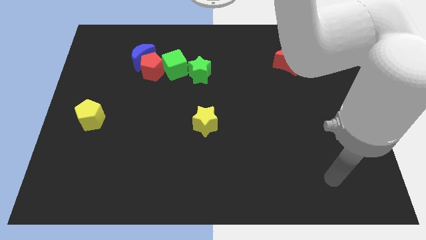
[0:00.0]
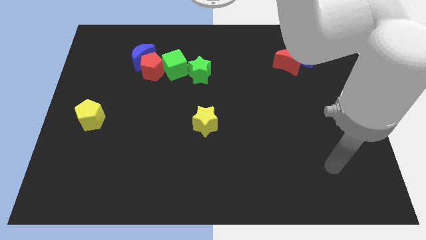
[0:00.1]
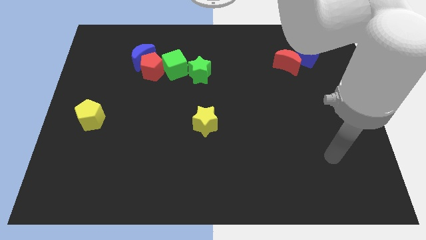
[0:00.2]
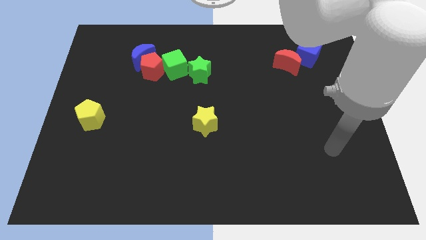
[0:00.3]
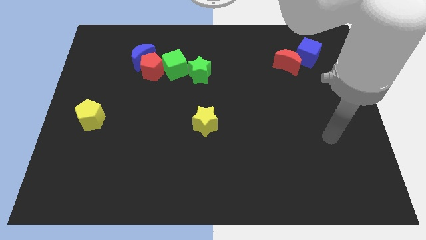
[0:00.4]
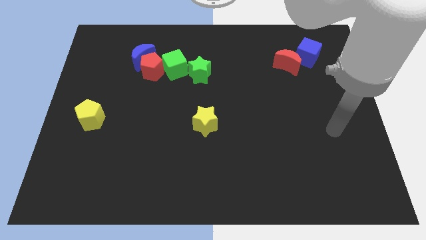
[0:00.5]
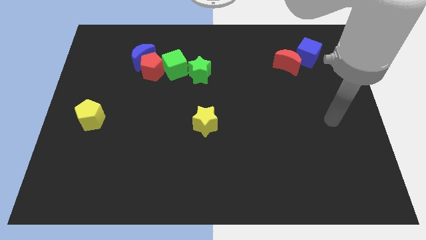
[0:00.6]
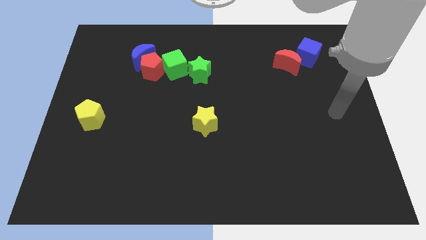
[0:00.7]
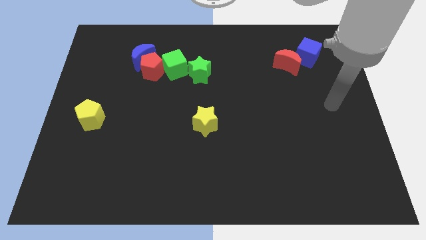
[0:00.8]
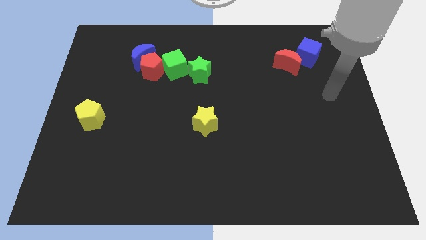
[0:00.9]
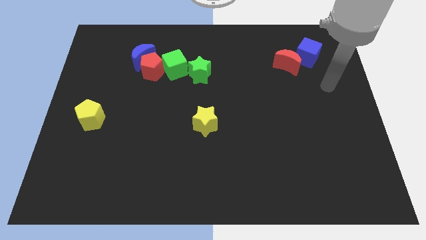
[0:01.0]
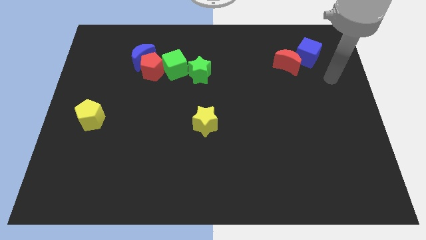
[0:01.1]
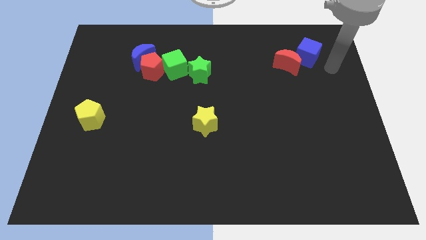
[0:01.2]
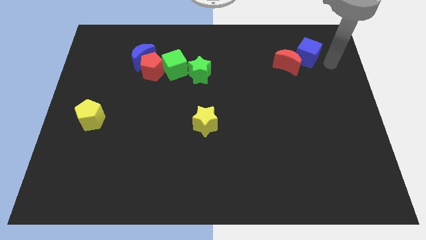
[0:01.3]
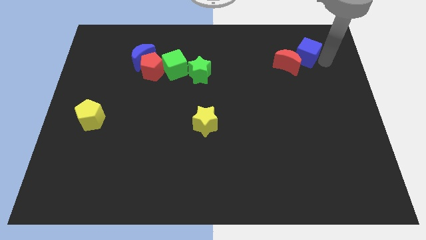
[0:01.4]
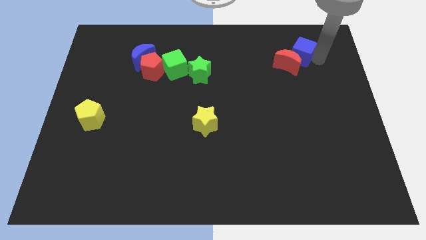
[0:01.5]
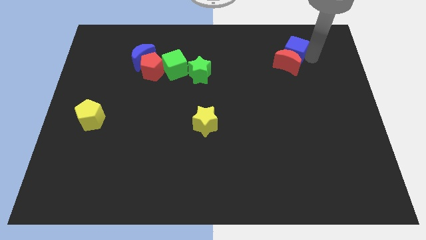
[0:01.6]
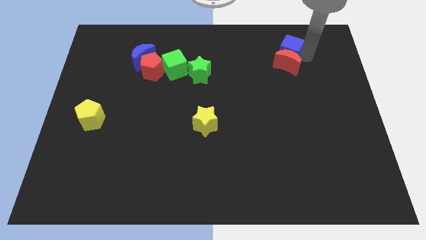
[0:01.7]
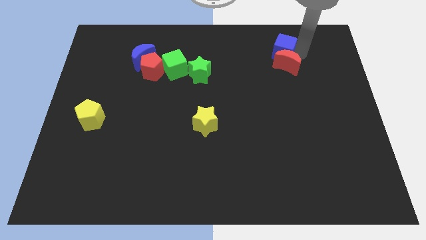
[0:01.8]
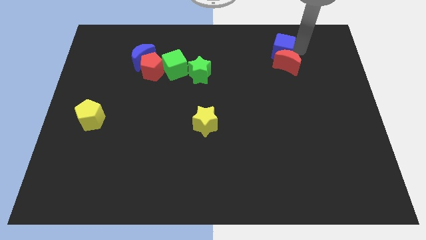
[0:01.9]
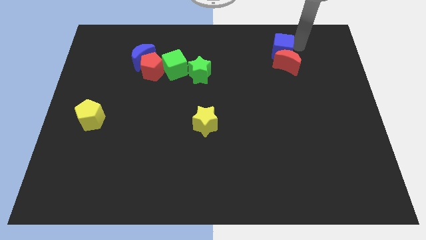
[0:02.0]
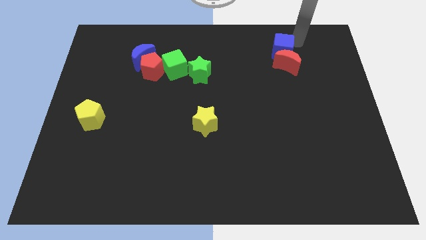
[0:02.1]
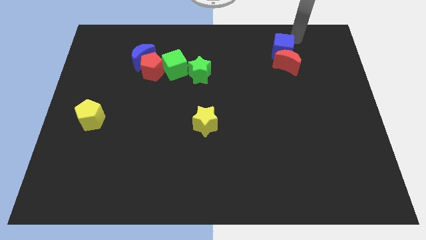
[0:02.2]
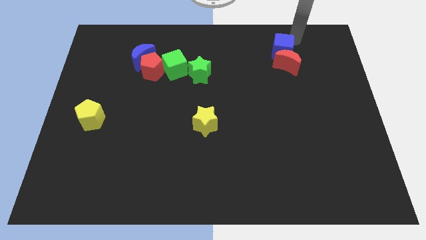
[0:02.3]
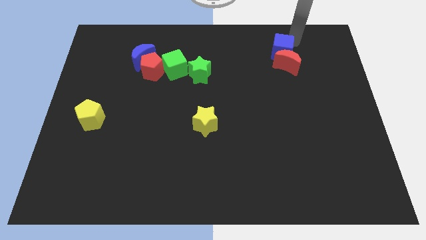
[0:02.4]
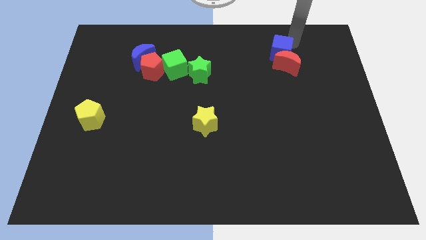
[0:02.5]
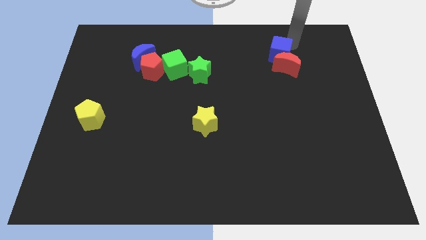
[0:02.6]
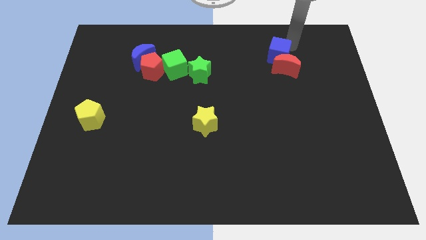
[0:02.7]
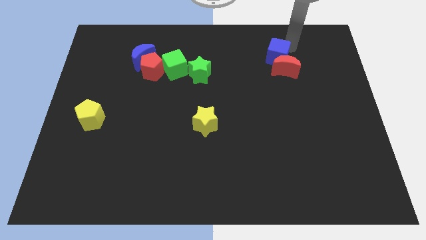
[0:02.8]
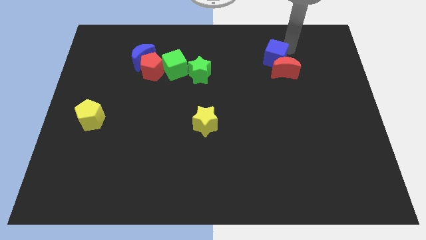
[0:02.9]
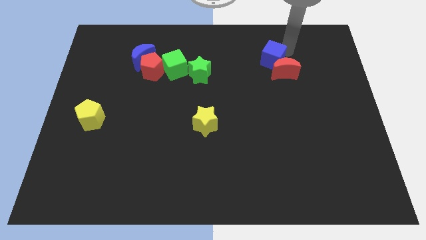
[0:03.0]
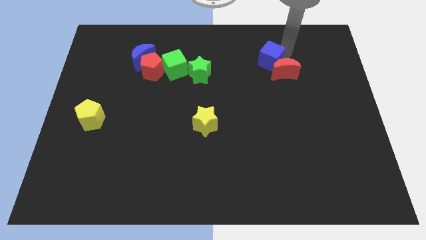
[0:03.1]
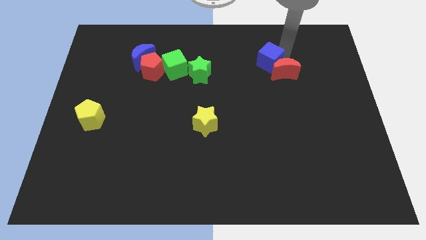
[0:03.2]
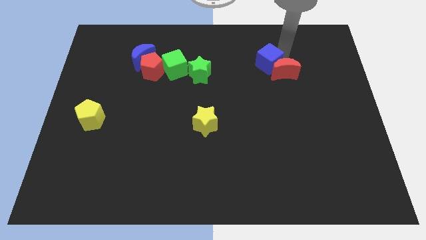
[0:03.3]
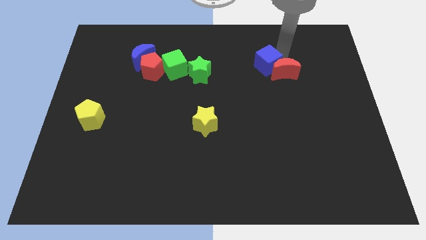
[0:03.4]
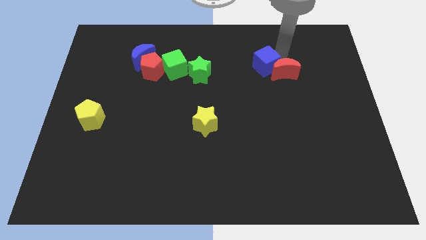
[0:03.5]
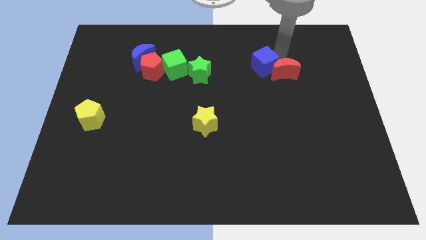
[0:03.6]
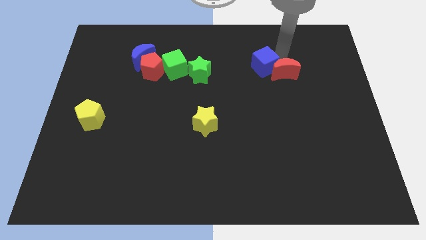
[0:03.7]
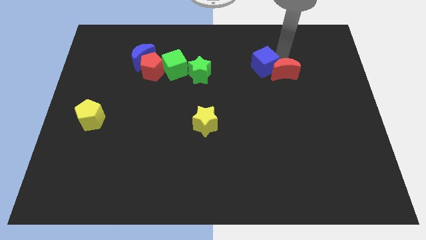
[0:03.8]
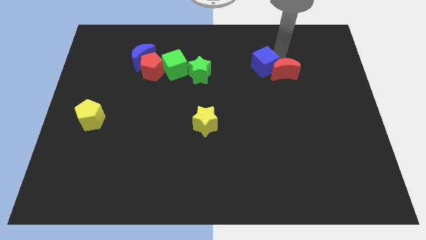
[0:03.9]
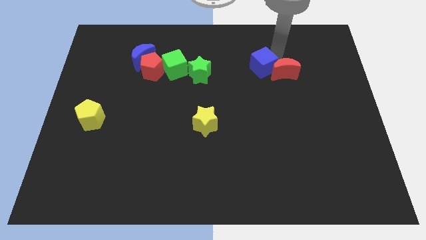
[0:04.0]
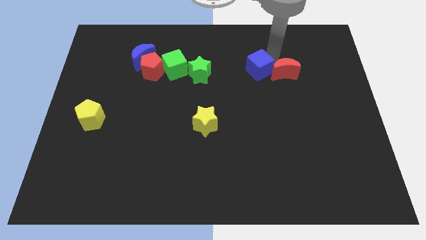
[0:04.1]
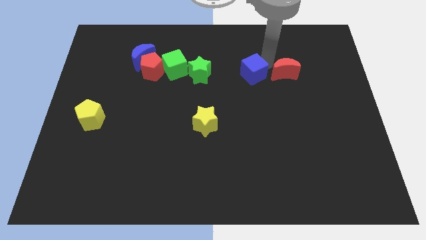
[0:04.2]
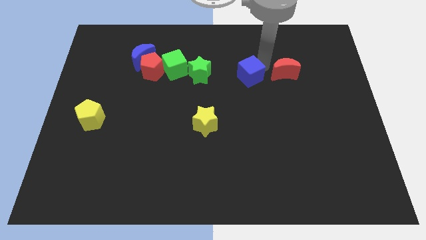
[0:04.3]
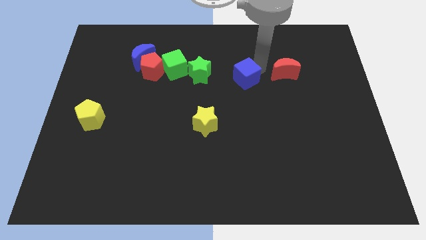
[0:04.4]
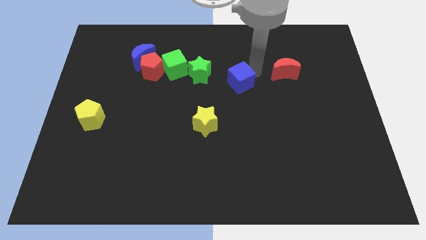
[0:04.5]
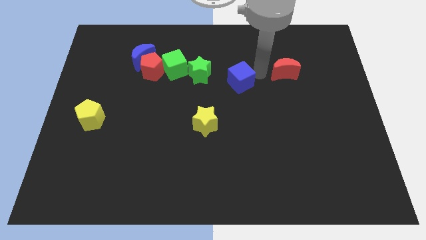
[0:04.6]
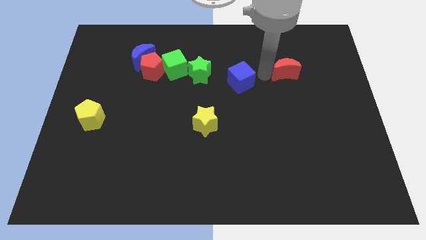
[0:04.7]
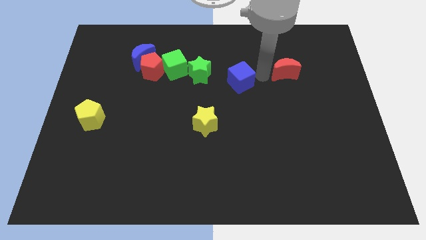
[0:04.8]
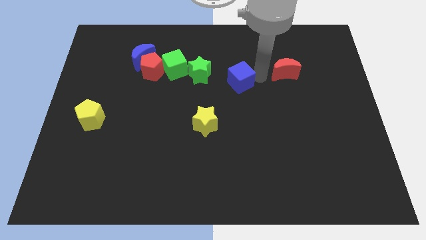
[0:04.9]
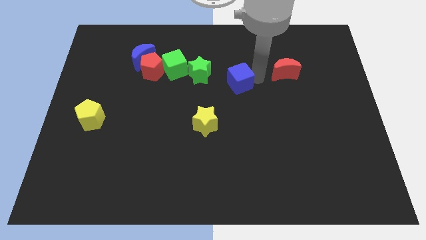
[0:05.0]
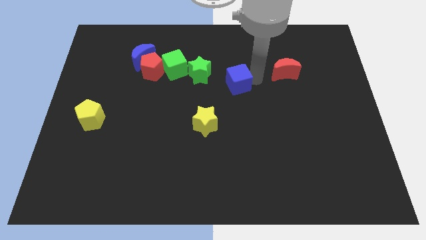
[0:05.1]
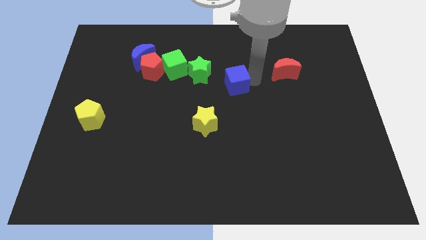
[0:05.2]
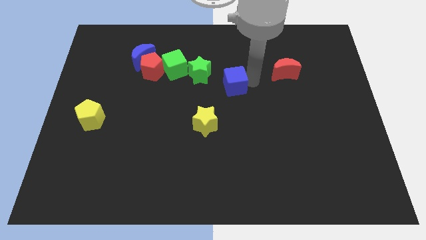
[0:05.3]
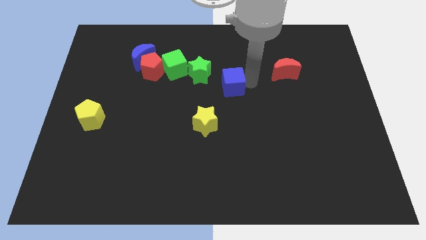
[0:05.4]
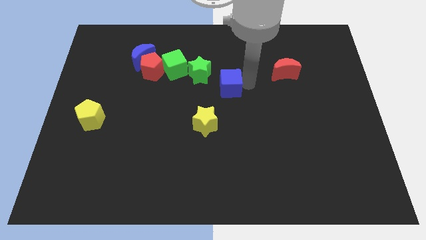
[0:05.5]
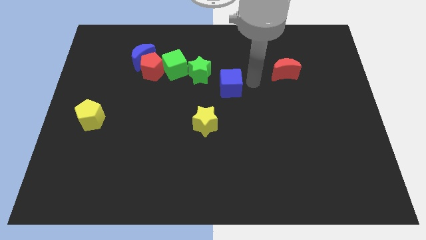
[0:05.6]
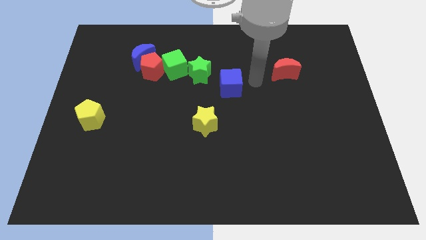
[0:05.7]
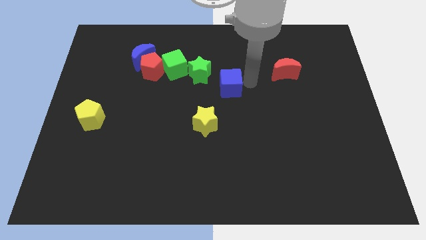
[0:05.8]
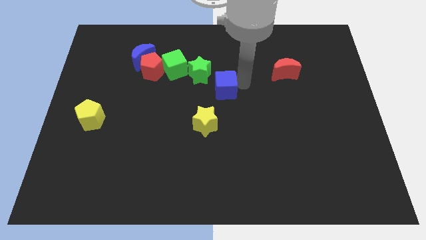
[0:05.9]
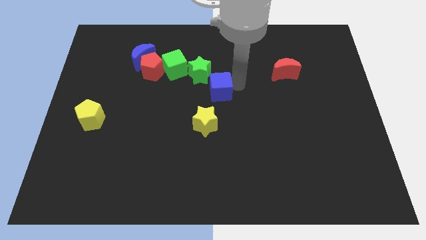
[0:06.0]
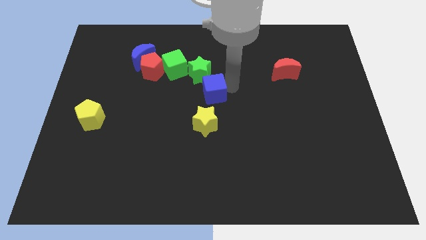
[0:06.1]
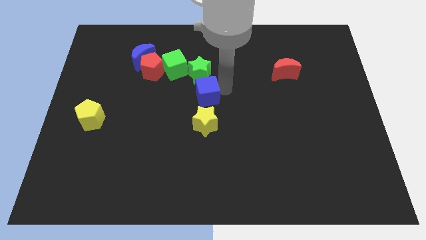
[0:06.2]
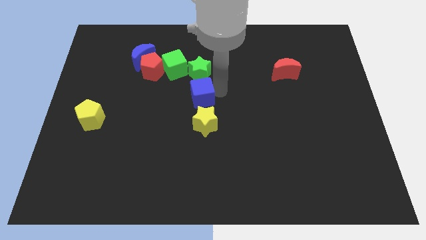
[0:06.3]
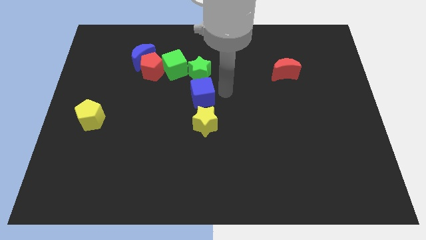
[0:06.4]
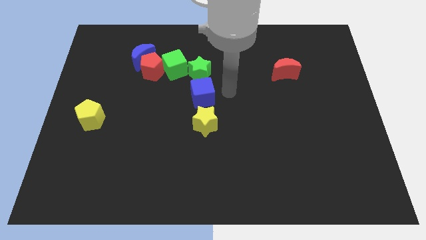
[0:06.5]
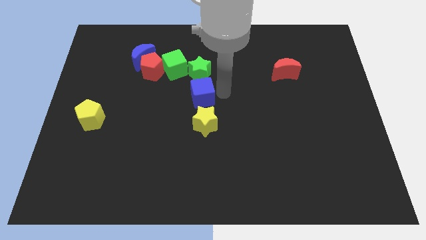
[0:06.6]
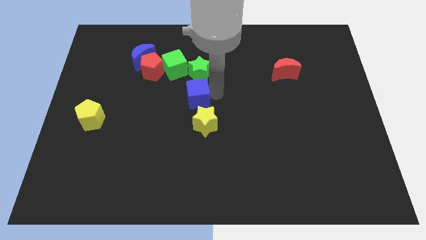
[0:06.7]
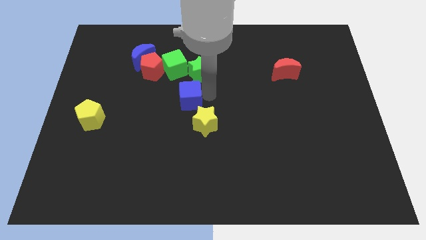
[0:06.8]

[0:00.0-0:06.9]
push the blue cube below the green cube

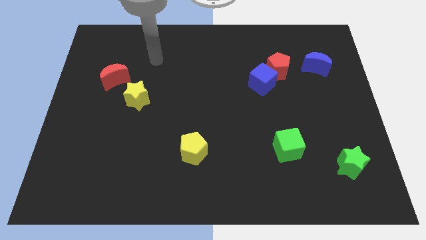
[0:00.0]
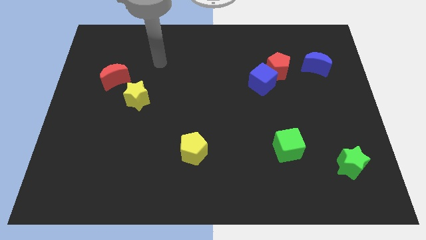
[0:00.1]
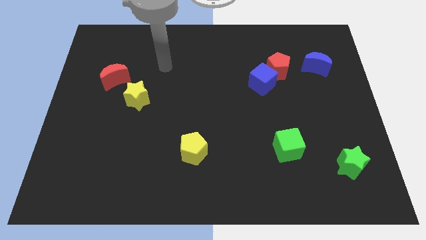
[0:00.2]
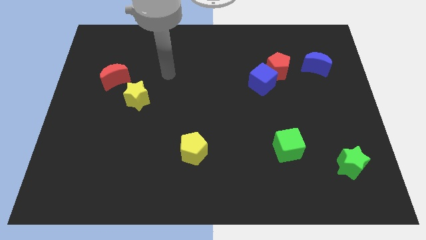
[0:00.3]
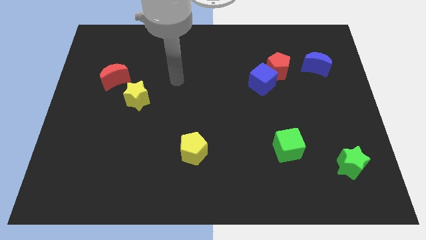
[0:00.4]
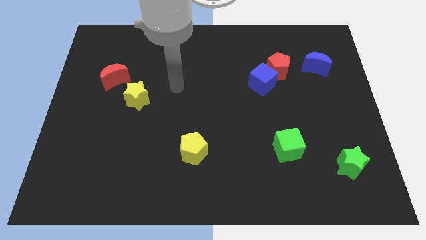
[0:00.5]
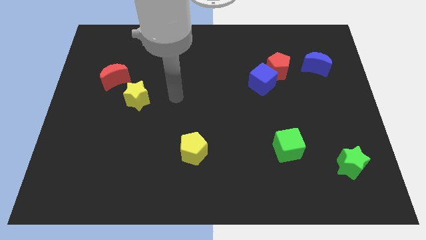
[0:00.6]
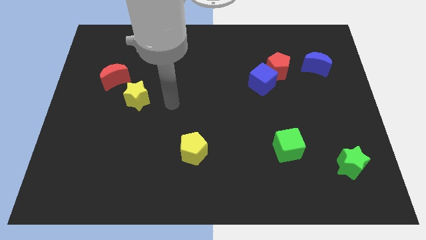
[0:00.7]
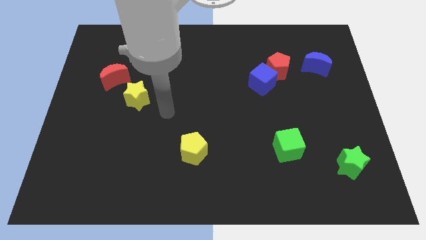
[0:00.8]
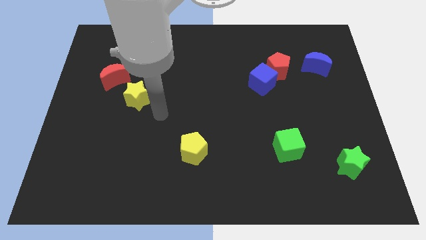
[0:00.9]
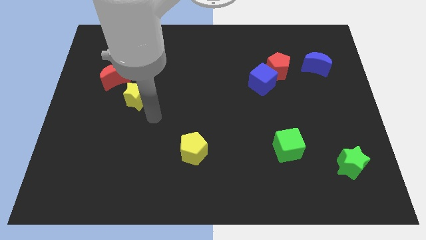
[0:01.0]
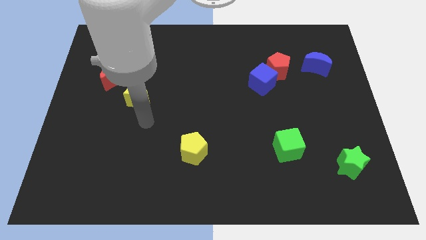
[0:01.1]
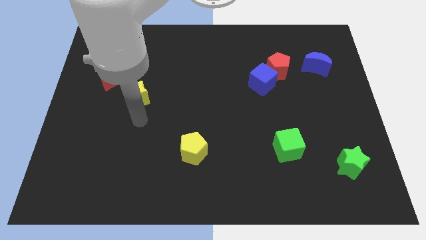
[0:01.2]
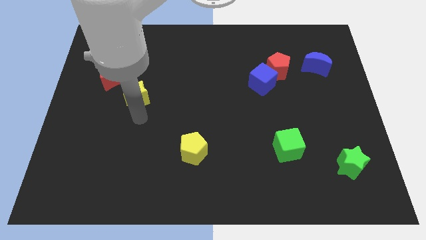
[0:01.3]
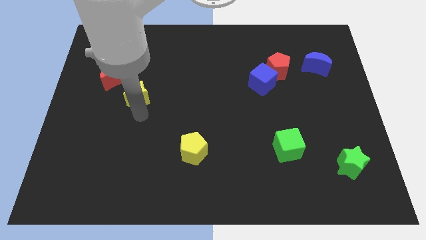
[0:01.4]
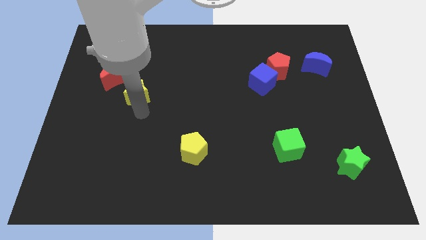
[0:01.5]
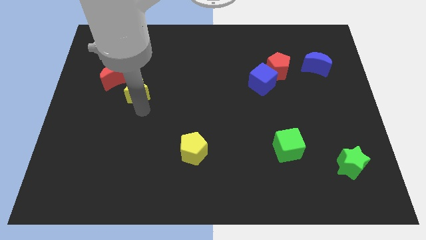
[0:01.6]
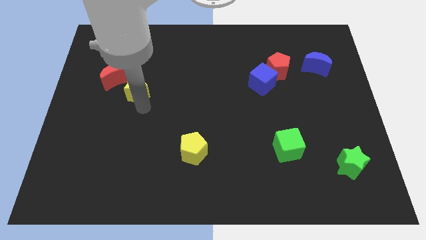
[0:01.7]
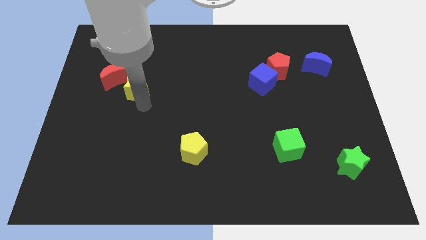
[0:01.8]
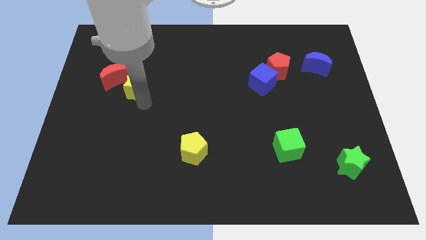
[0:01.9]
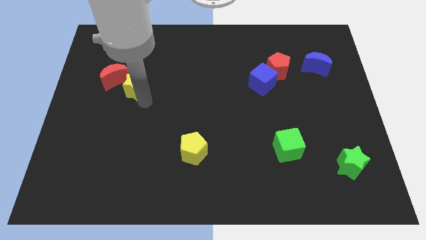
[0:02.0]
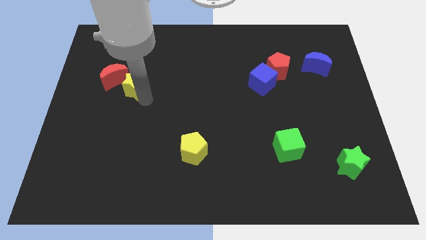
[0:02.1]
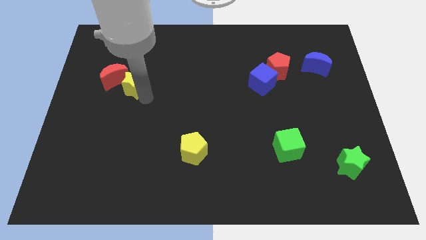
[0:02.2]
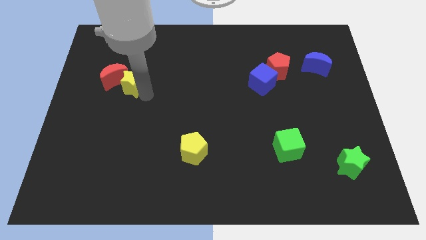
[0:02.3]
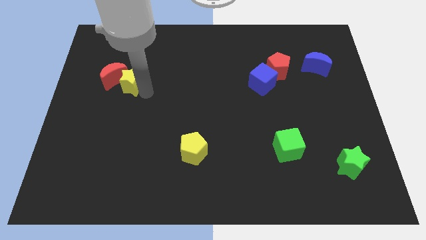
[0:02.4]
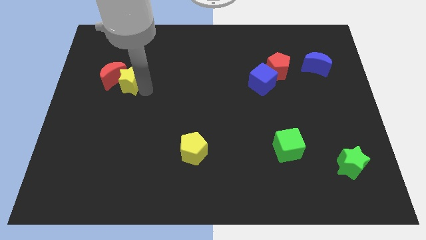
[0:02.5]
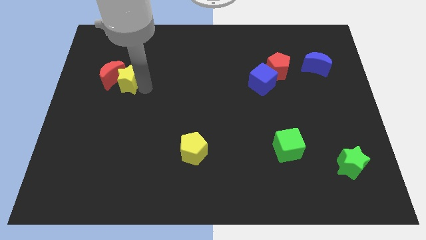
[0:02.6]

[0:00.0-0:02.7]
slide the yellow star diagonally up and to the right of the red moon
